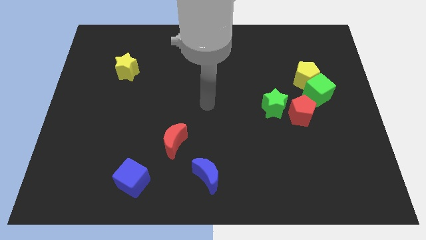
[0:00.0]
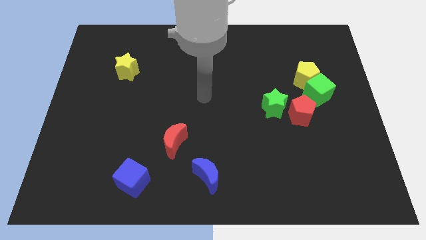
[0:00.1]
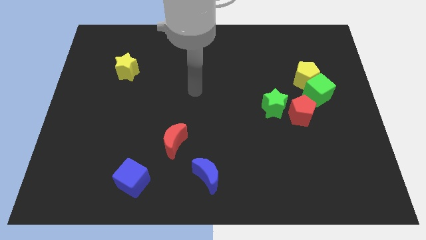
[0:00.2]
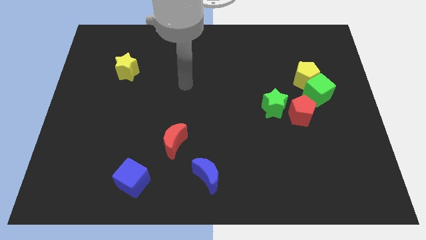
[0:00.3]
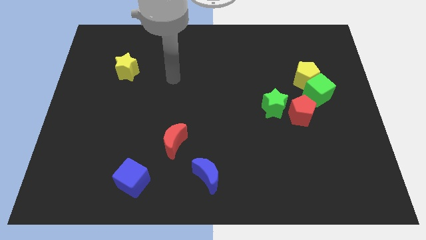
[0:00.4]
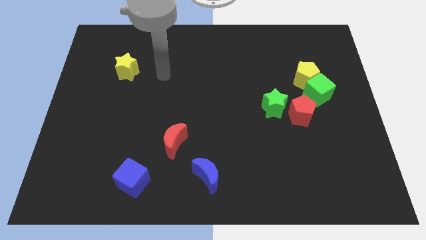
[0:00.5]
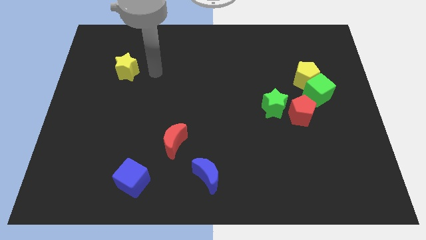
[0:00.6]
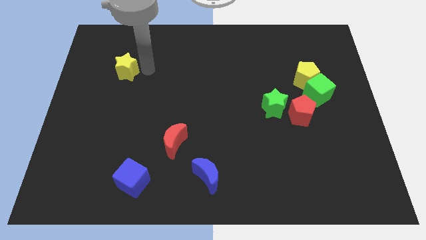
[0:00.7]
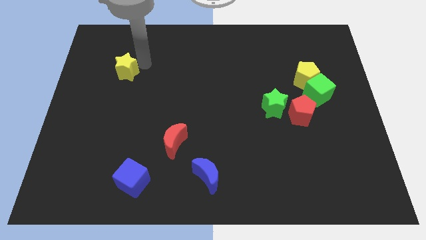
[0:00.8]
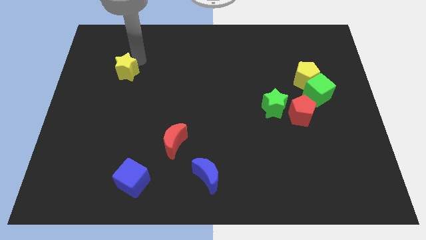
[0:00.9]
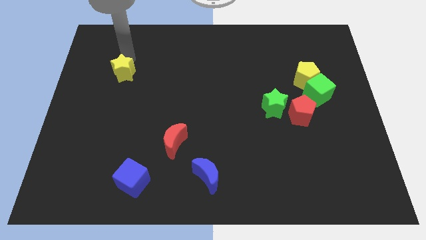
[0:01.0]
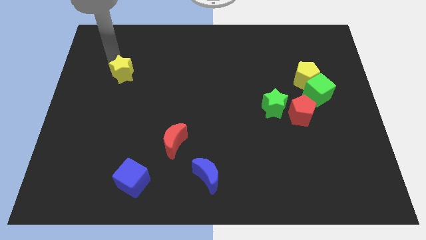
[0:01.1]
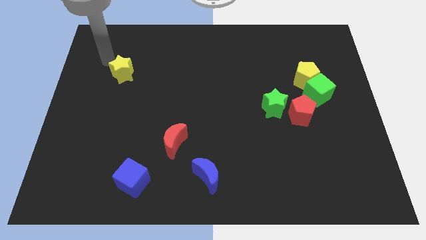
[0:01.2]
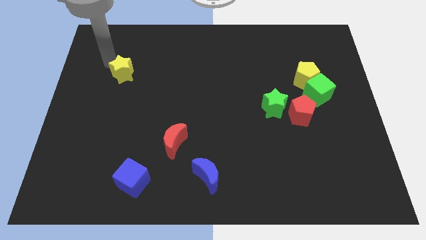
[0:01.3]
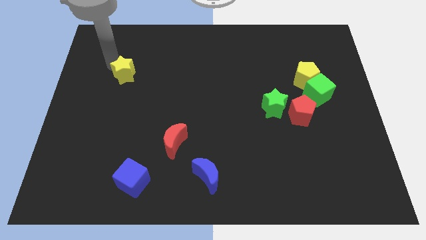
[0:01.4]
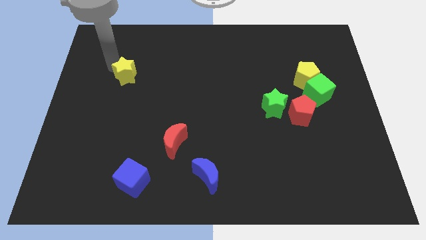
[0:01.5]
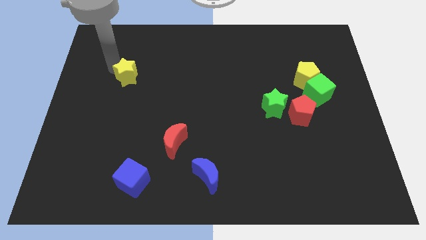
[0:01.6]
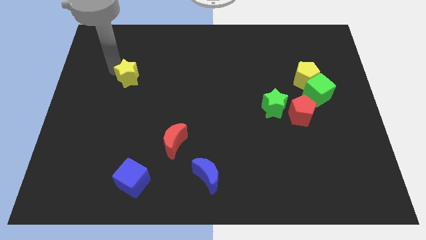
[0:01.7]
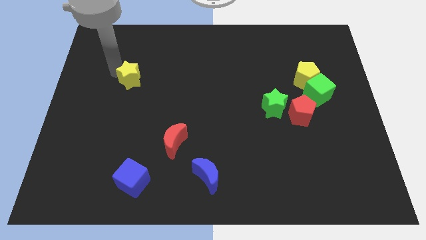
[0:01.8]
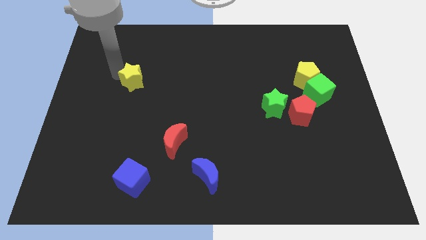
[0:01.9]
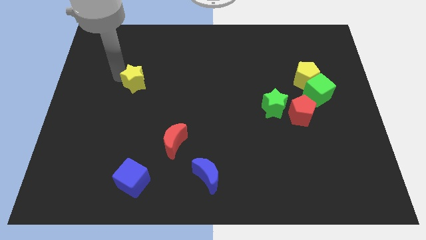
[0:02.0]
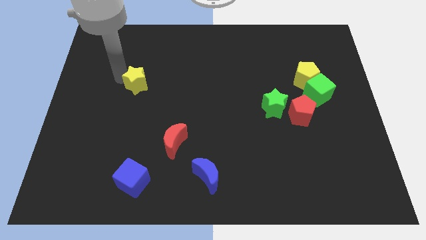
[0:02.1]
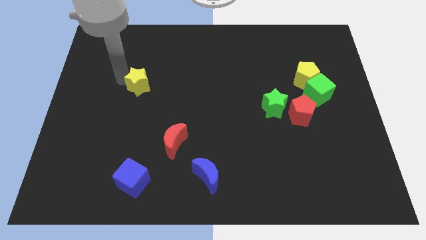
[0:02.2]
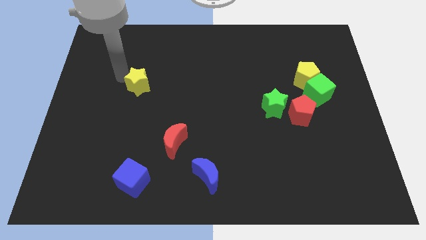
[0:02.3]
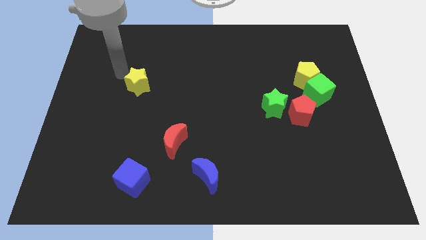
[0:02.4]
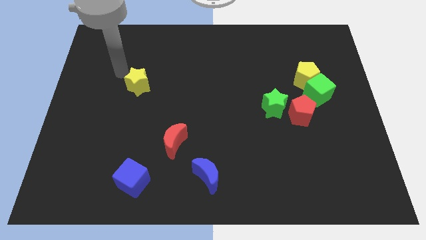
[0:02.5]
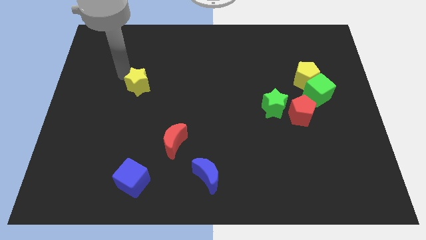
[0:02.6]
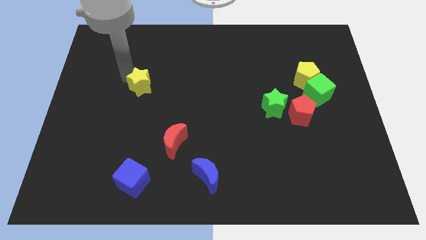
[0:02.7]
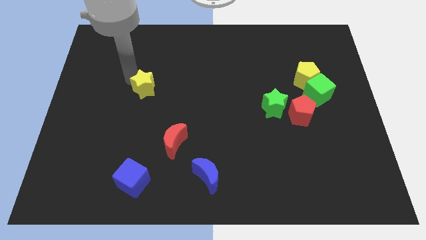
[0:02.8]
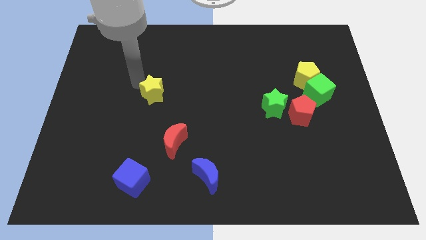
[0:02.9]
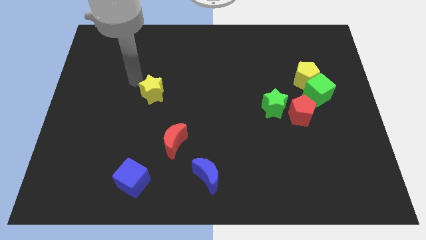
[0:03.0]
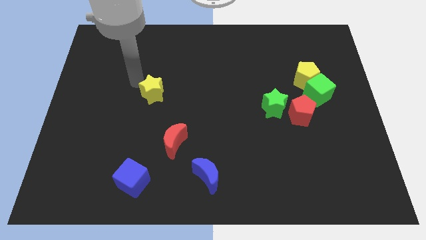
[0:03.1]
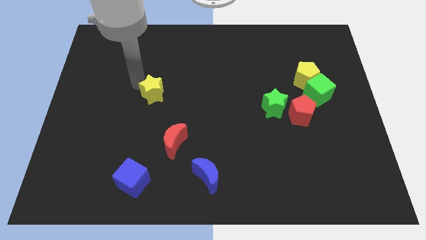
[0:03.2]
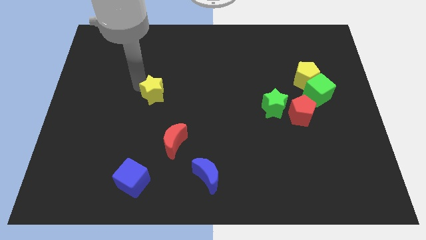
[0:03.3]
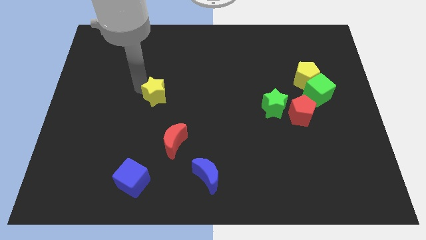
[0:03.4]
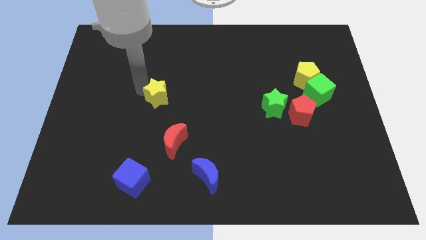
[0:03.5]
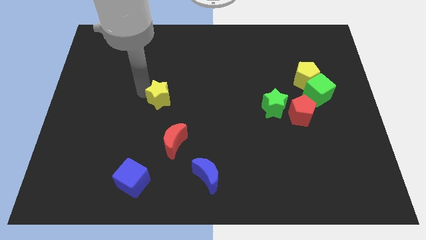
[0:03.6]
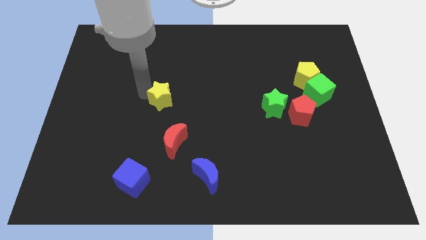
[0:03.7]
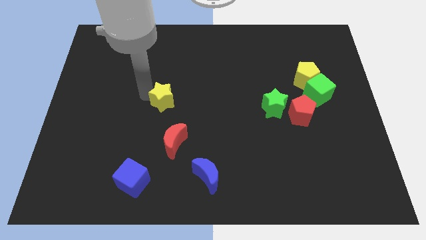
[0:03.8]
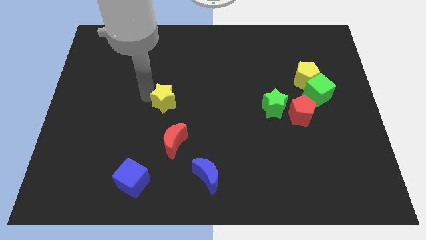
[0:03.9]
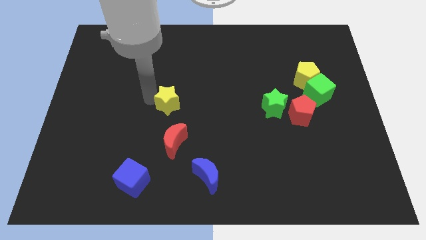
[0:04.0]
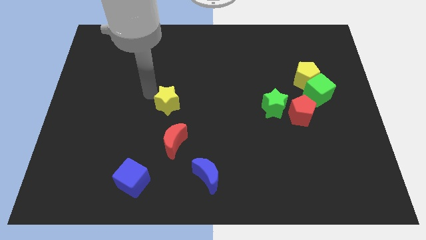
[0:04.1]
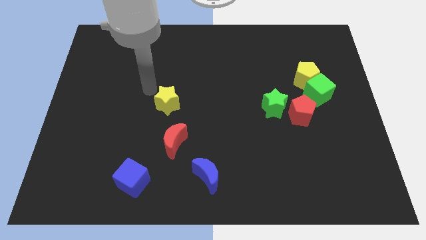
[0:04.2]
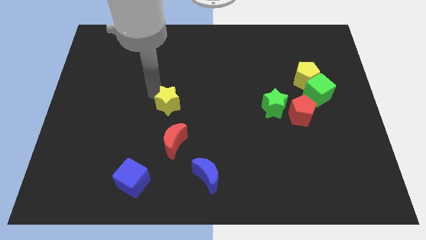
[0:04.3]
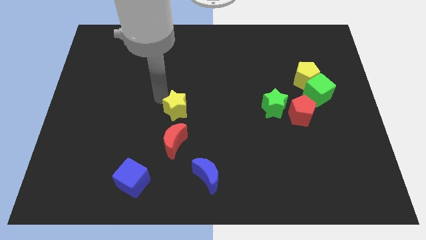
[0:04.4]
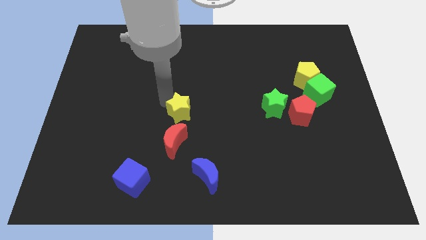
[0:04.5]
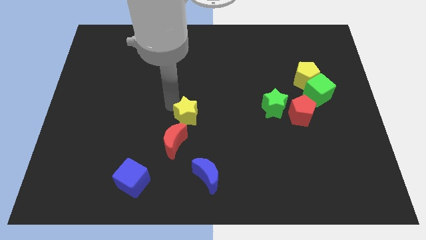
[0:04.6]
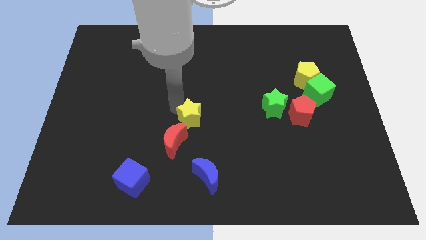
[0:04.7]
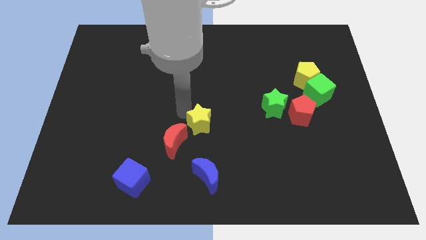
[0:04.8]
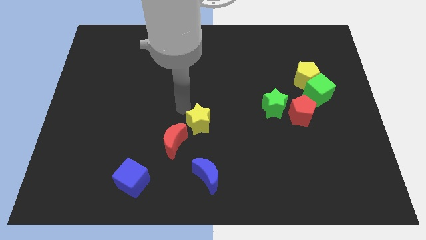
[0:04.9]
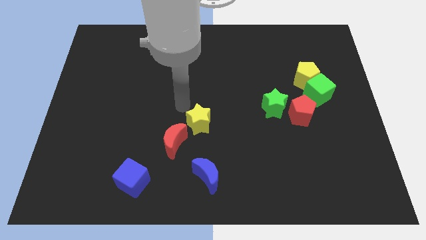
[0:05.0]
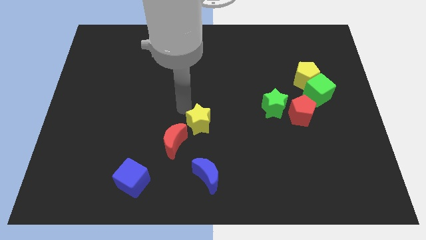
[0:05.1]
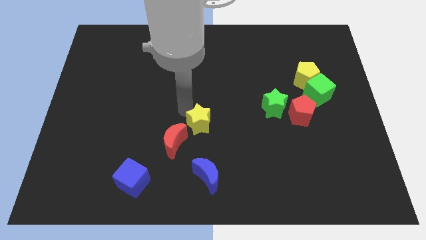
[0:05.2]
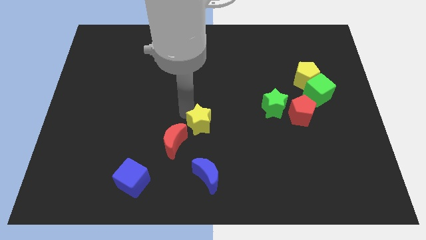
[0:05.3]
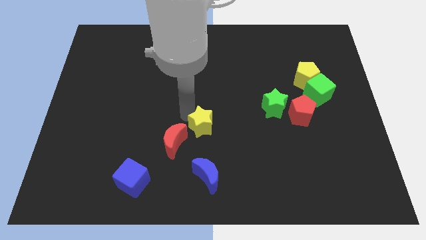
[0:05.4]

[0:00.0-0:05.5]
put the yellow star to the right of the red moon

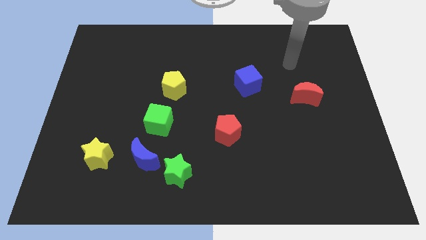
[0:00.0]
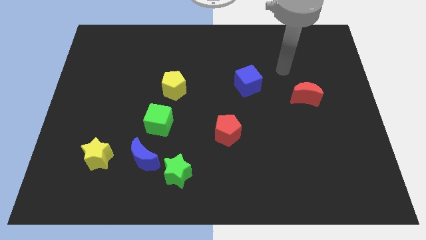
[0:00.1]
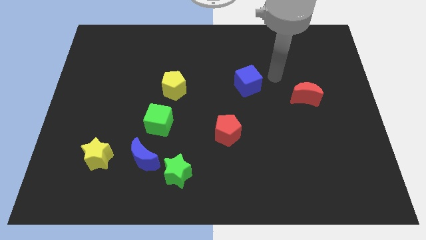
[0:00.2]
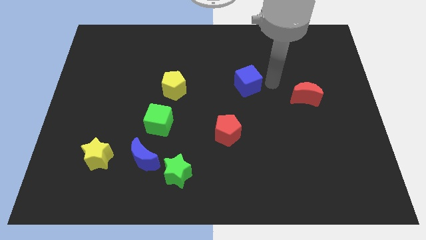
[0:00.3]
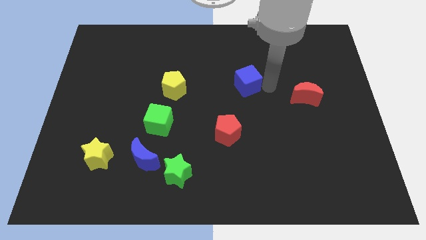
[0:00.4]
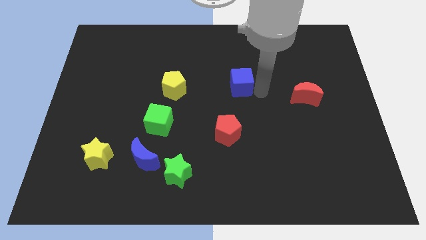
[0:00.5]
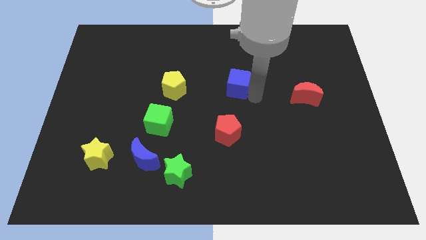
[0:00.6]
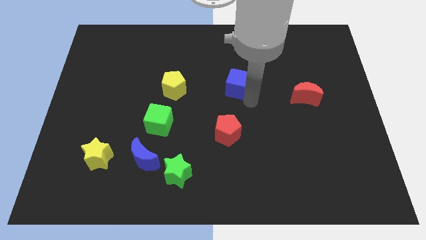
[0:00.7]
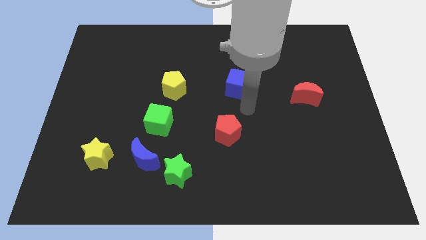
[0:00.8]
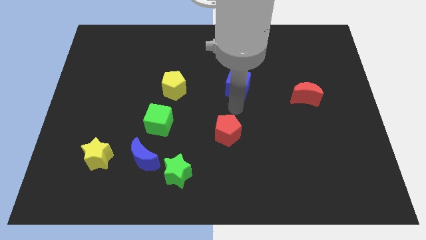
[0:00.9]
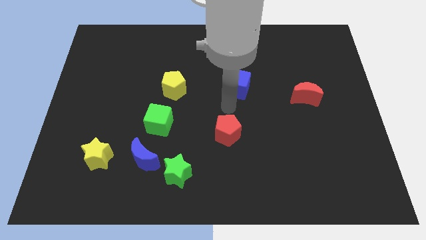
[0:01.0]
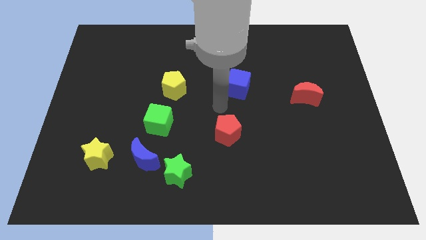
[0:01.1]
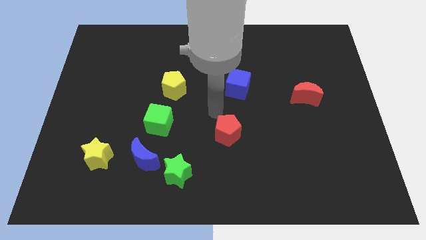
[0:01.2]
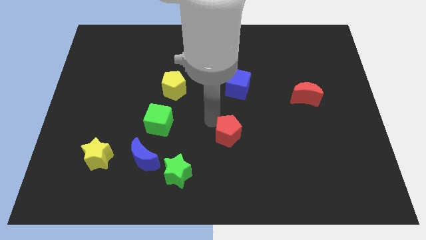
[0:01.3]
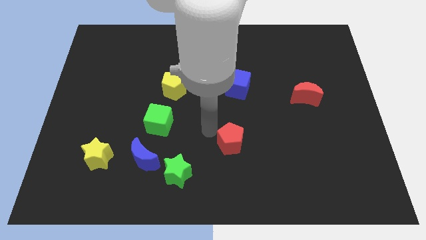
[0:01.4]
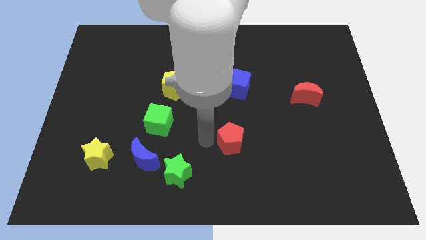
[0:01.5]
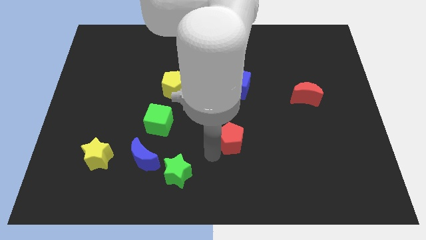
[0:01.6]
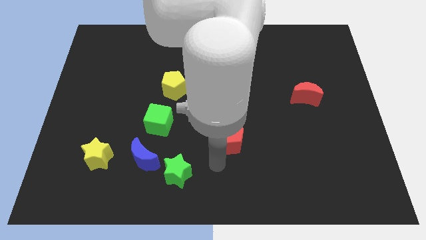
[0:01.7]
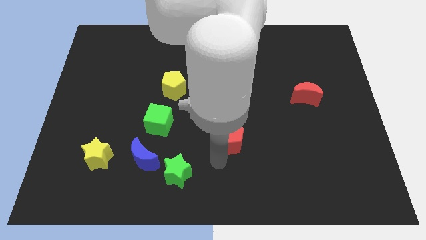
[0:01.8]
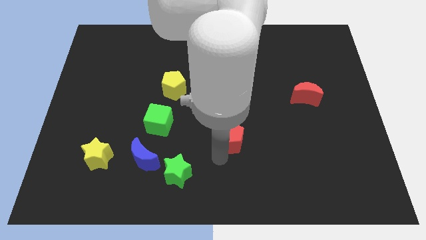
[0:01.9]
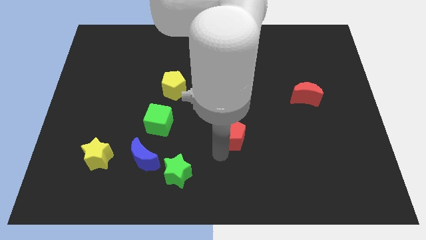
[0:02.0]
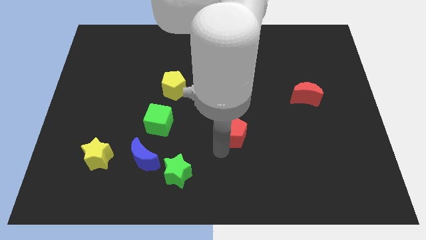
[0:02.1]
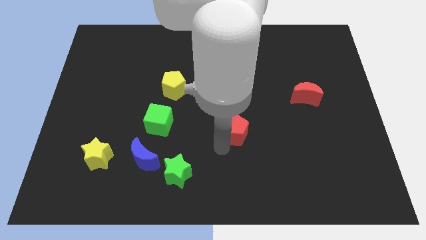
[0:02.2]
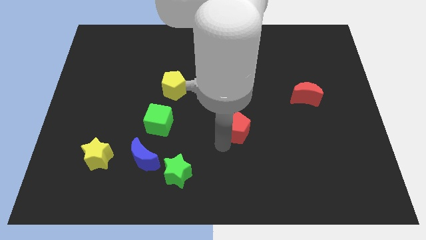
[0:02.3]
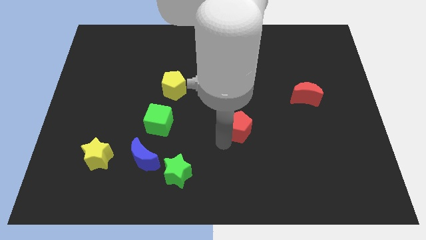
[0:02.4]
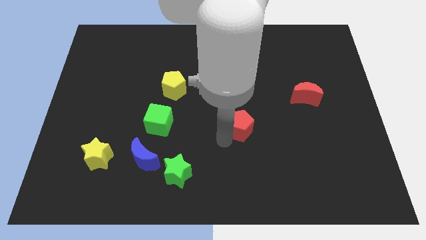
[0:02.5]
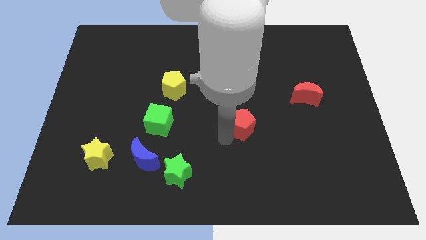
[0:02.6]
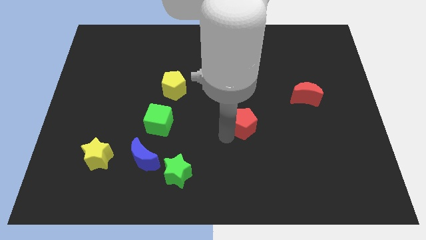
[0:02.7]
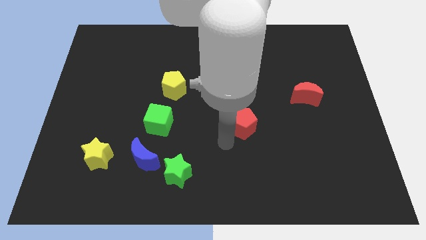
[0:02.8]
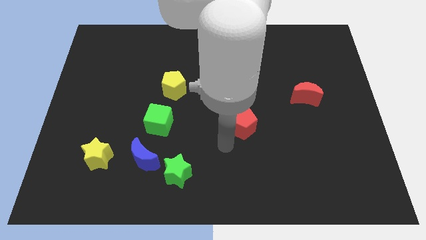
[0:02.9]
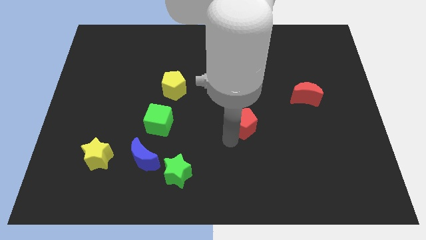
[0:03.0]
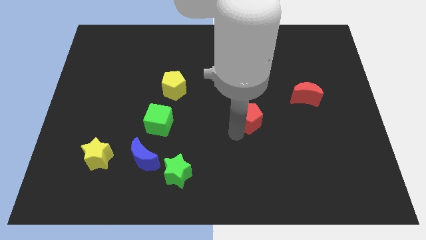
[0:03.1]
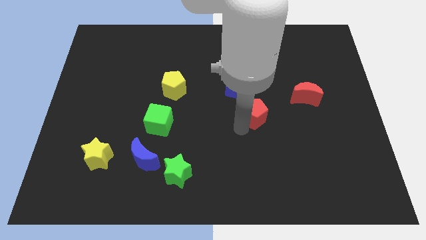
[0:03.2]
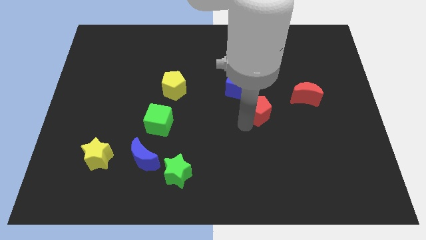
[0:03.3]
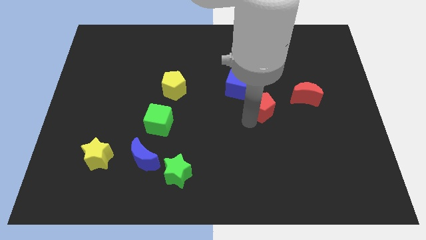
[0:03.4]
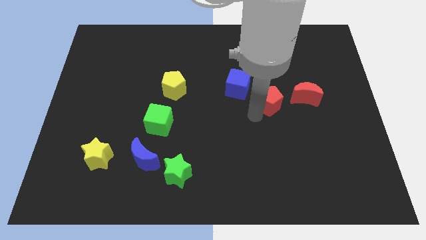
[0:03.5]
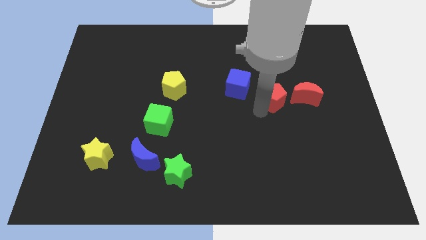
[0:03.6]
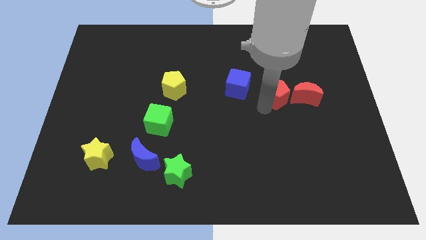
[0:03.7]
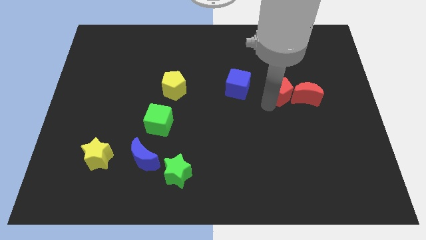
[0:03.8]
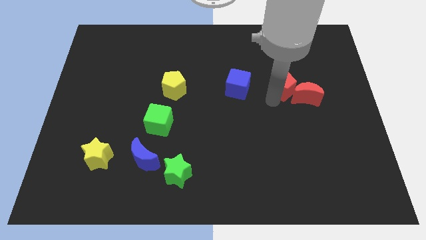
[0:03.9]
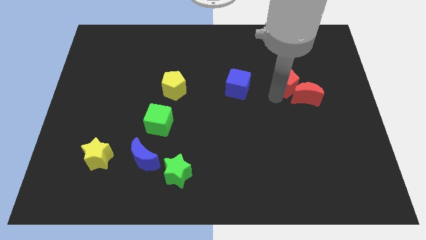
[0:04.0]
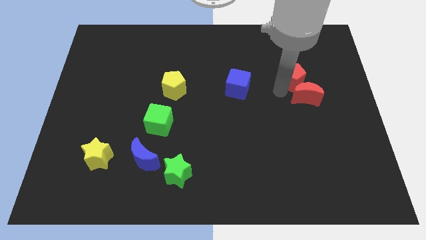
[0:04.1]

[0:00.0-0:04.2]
put the red pentagon to the top side of the red moon
